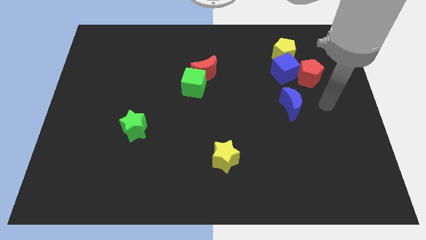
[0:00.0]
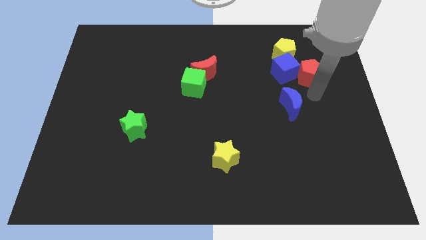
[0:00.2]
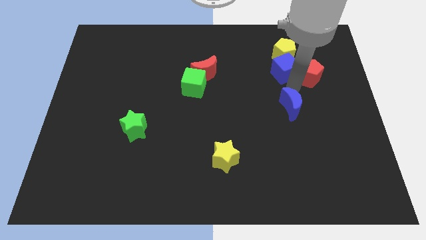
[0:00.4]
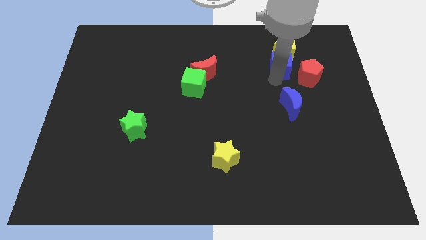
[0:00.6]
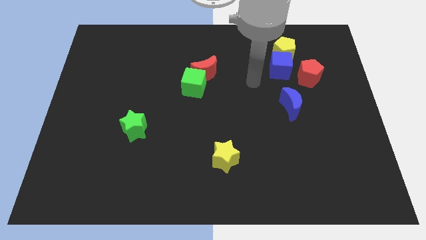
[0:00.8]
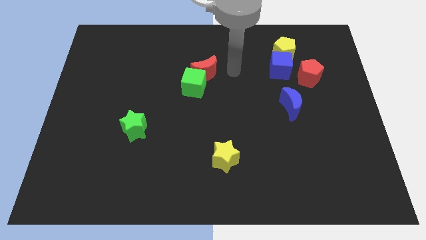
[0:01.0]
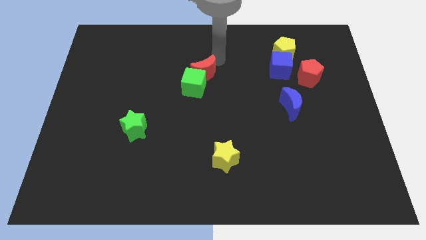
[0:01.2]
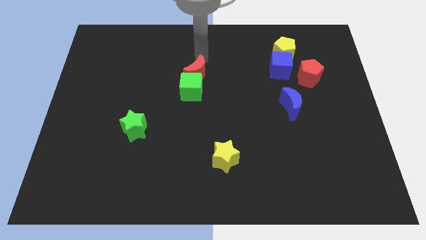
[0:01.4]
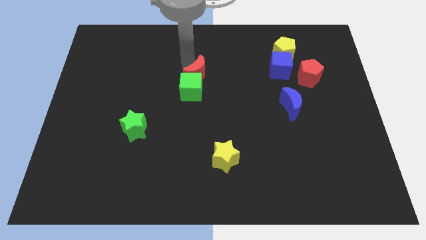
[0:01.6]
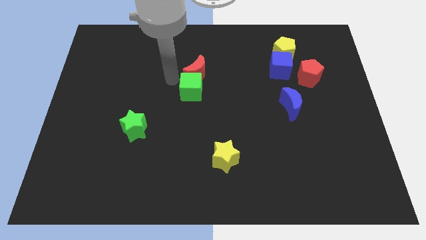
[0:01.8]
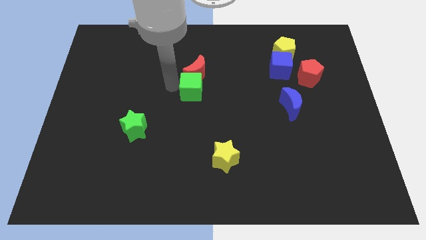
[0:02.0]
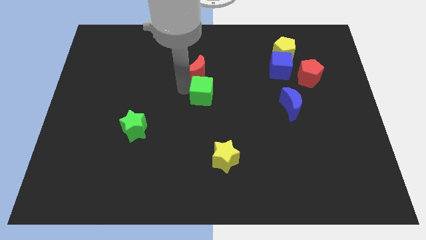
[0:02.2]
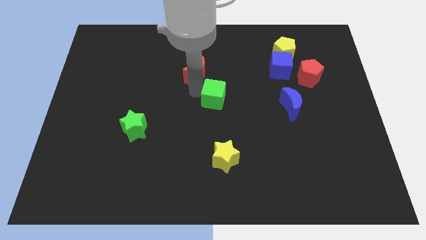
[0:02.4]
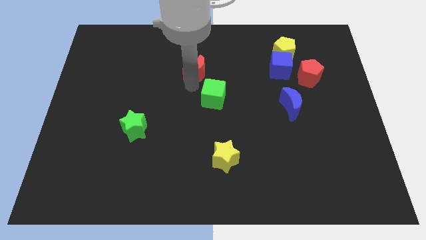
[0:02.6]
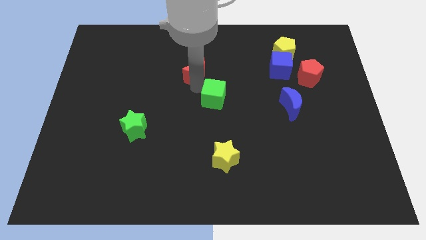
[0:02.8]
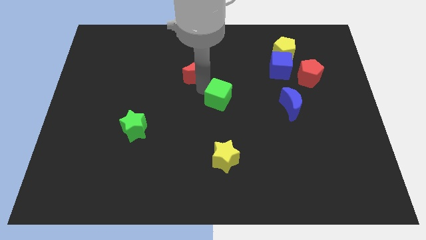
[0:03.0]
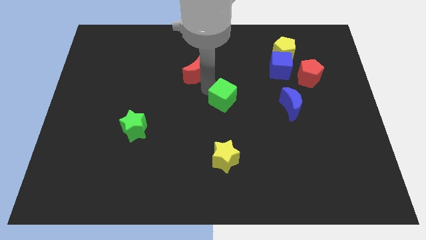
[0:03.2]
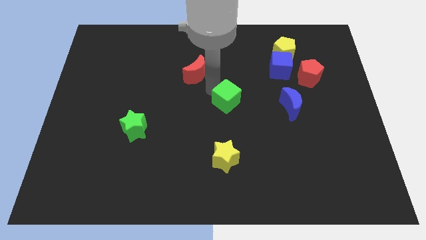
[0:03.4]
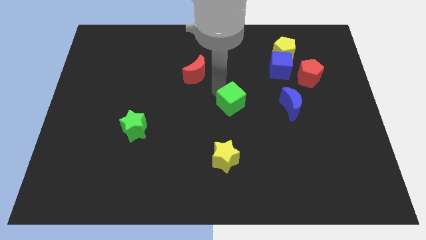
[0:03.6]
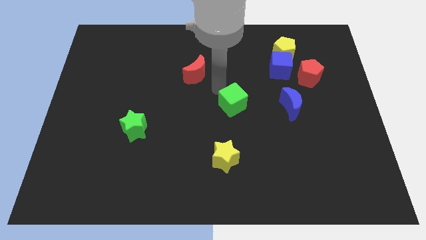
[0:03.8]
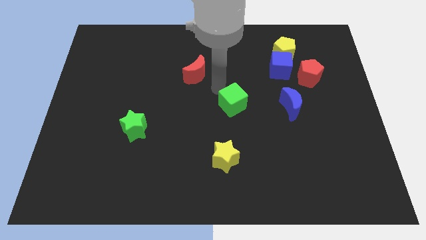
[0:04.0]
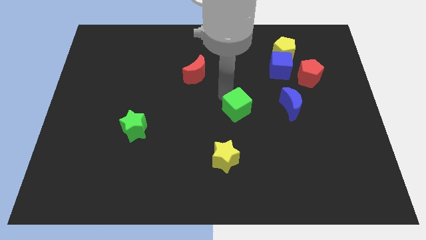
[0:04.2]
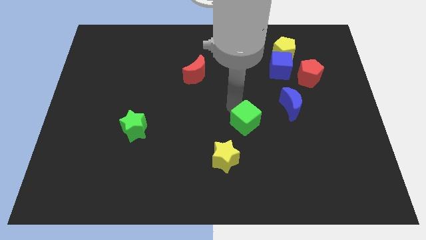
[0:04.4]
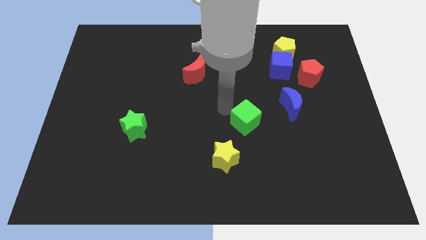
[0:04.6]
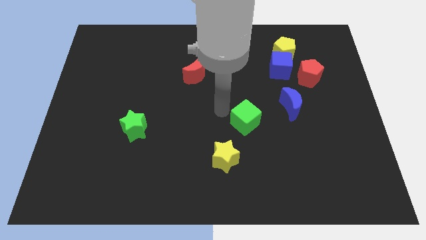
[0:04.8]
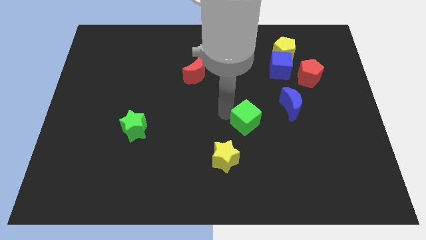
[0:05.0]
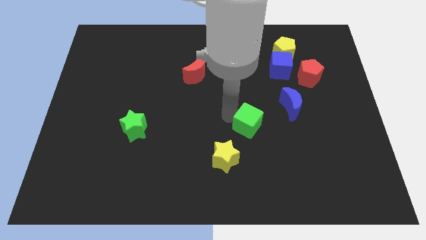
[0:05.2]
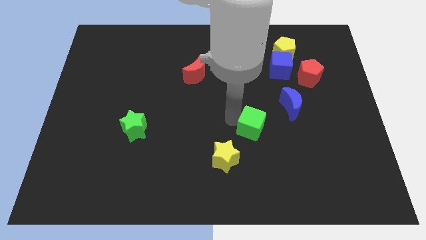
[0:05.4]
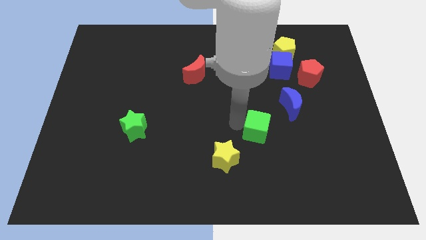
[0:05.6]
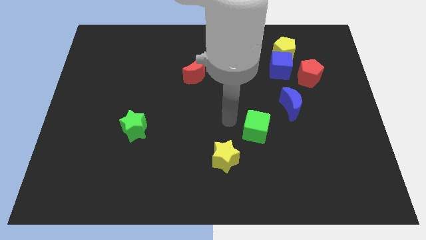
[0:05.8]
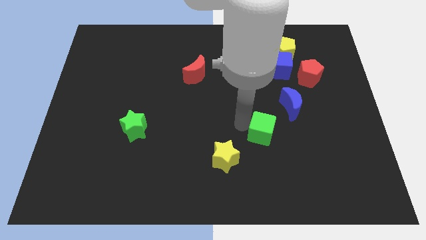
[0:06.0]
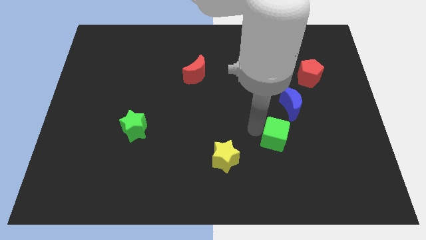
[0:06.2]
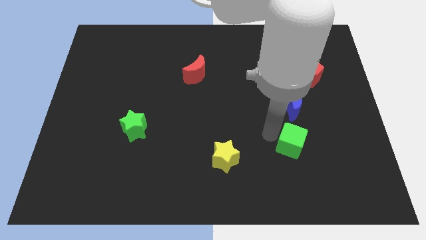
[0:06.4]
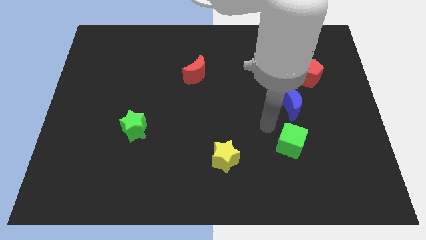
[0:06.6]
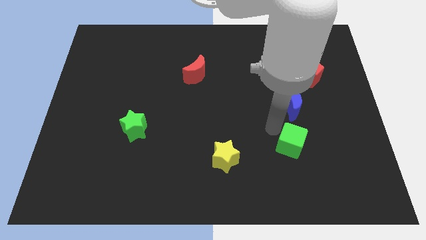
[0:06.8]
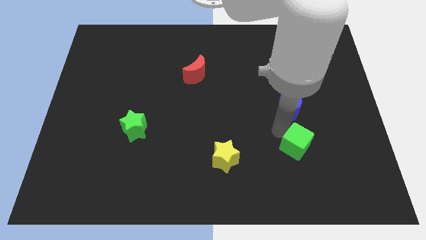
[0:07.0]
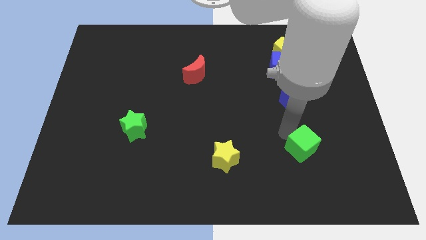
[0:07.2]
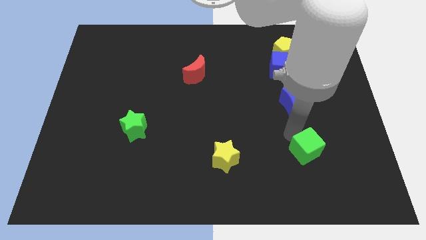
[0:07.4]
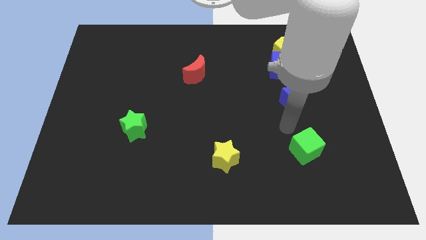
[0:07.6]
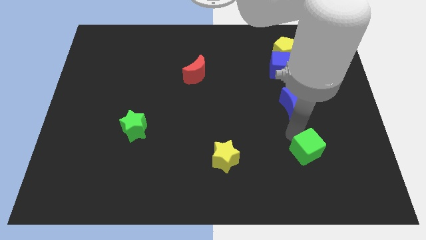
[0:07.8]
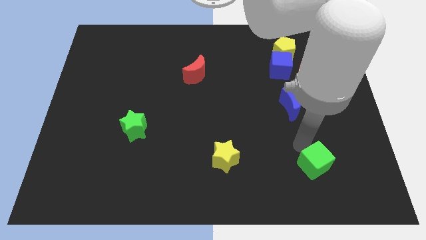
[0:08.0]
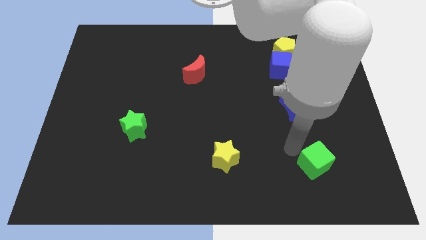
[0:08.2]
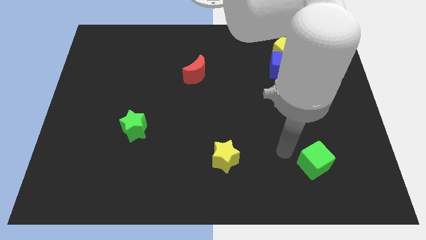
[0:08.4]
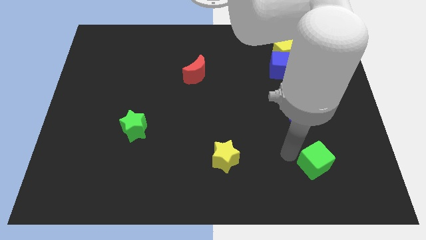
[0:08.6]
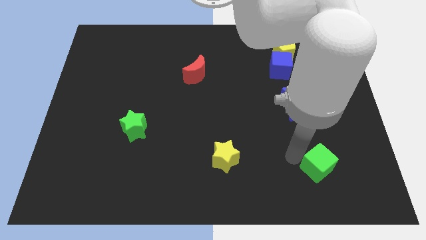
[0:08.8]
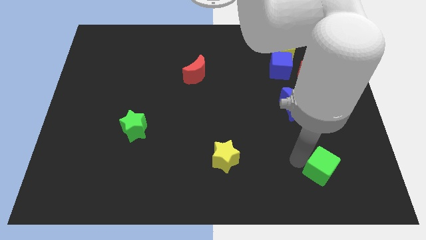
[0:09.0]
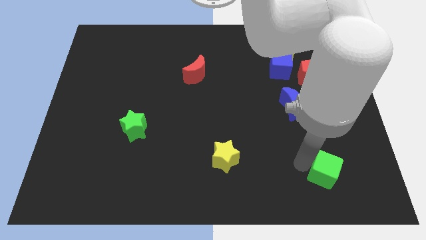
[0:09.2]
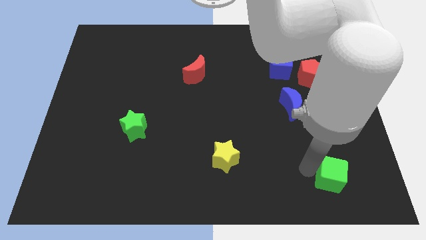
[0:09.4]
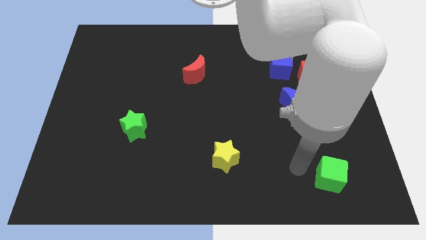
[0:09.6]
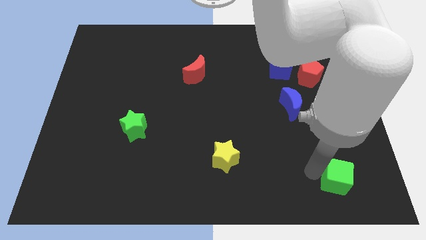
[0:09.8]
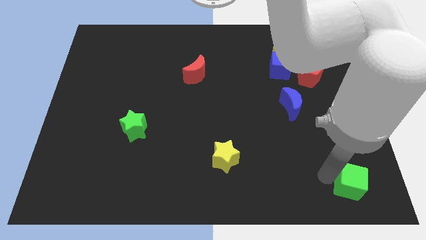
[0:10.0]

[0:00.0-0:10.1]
slide the green cube to the bottom right corner
